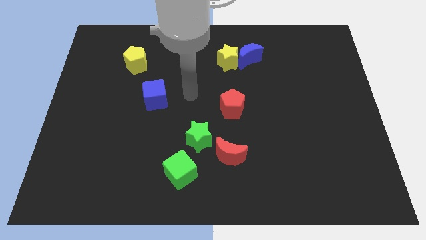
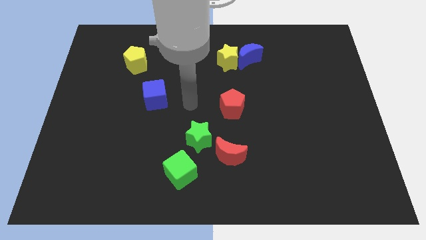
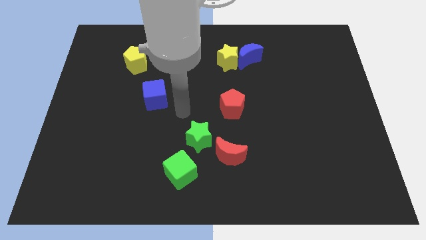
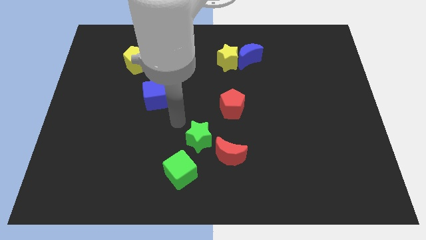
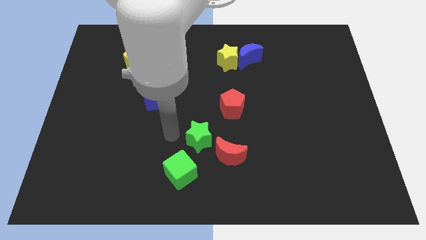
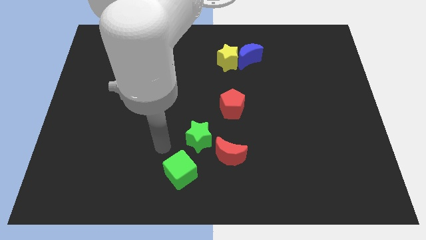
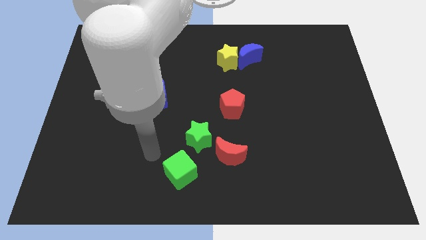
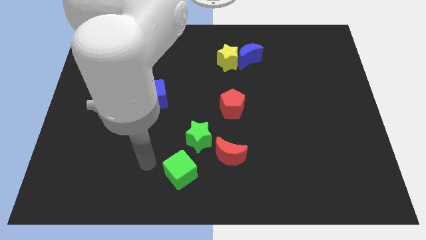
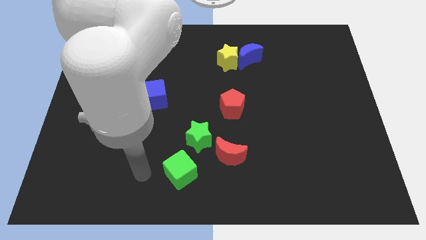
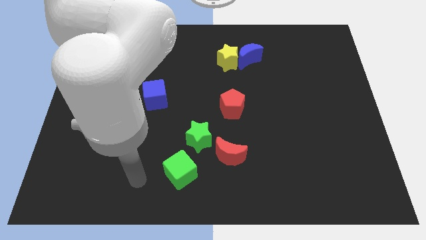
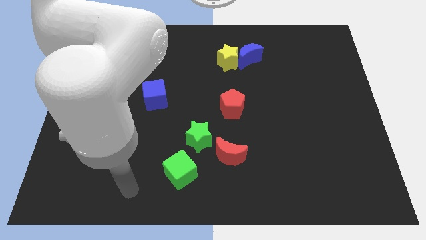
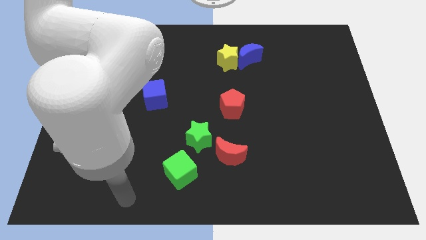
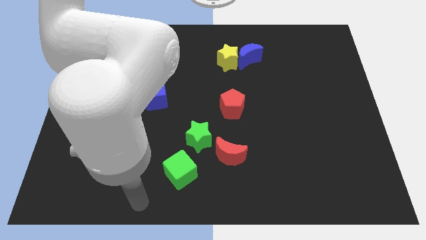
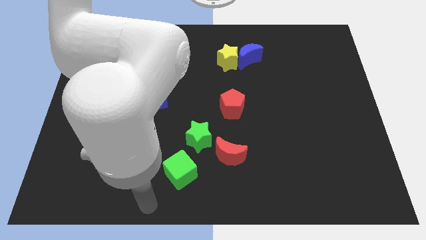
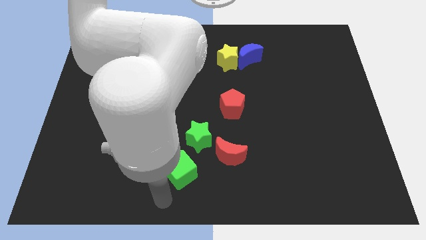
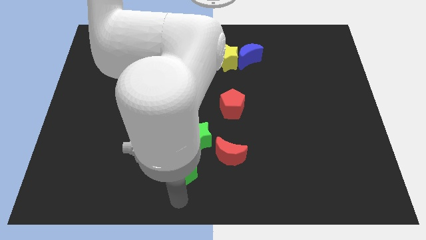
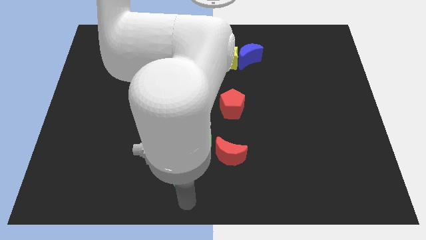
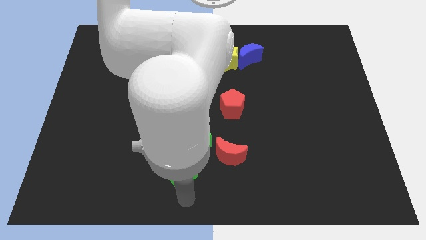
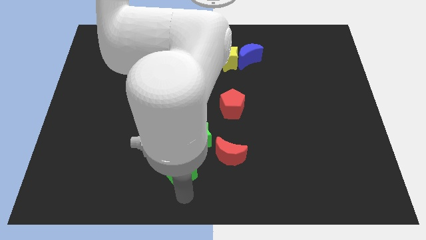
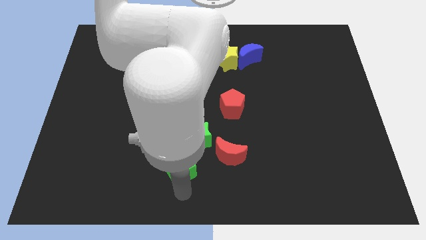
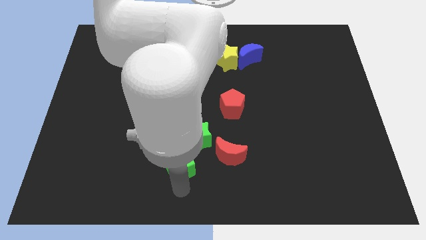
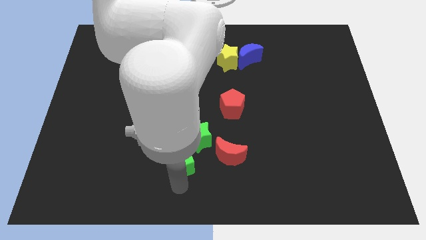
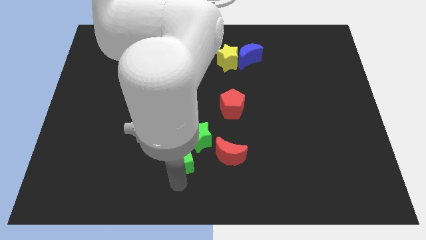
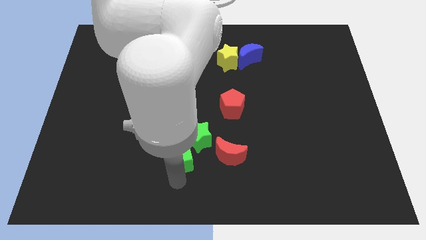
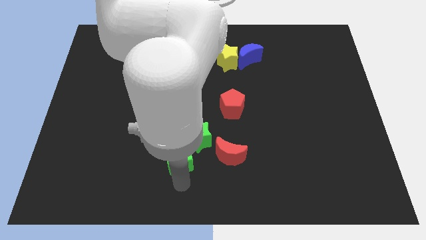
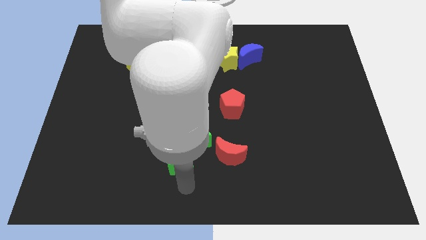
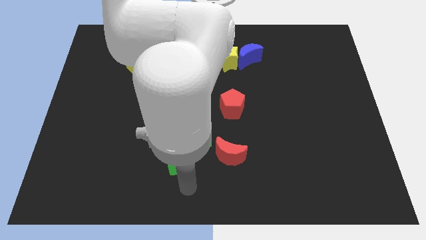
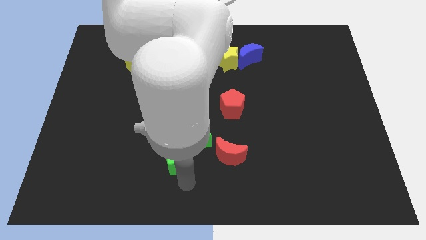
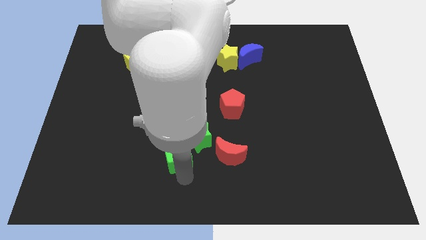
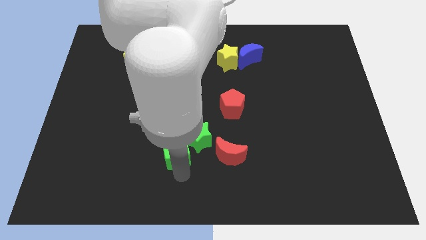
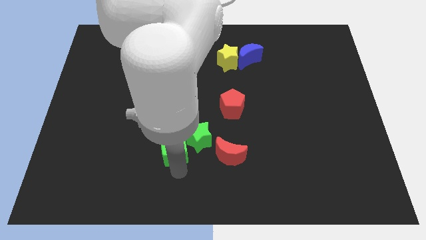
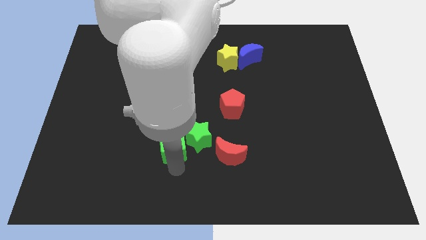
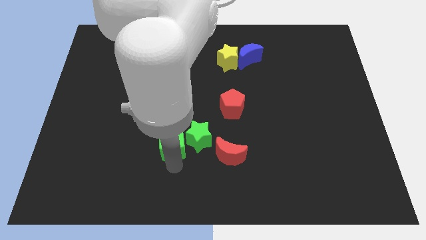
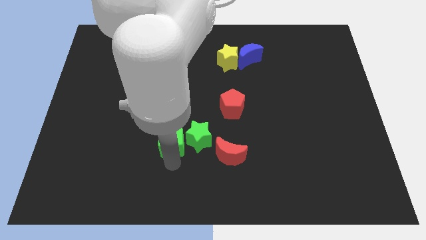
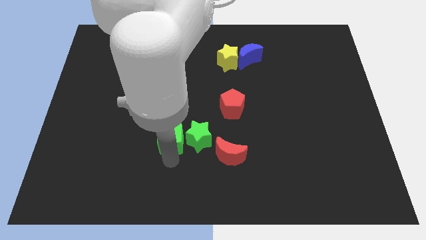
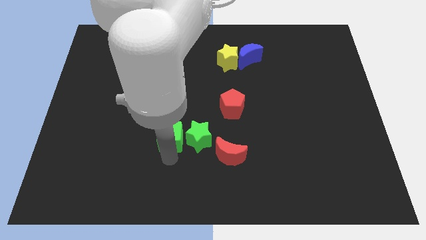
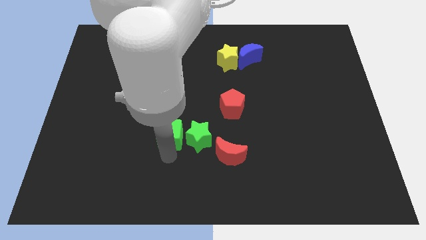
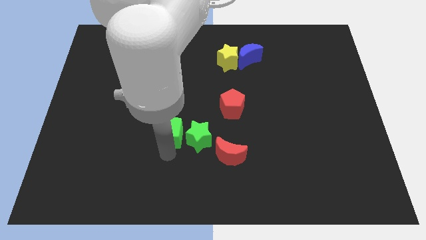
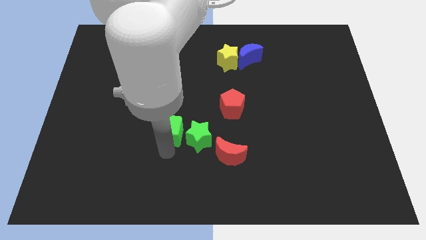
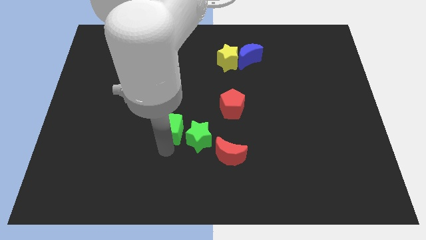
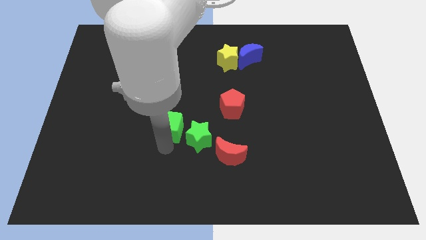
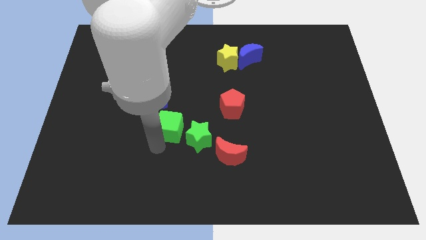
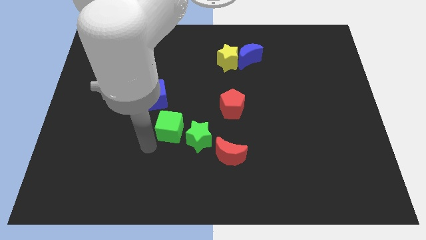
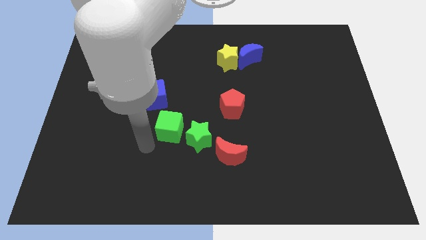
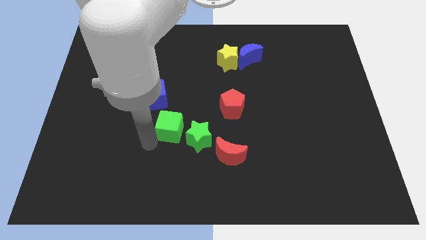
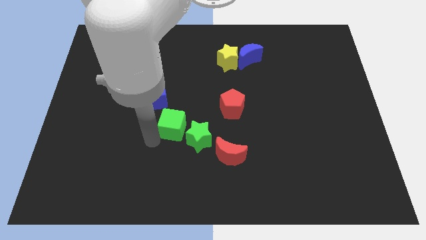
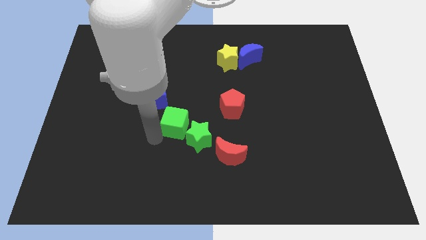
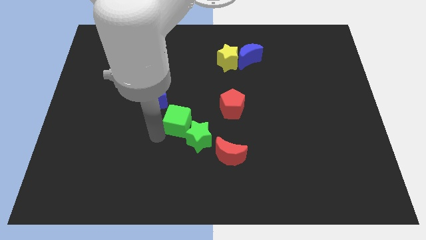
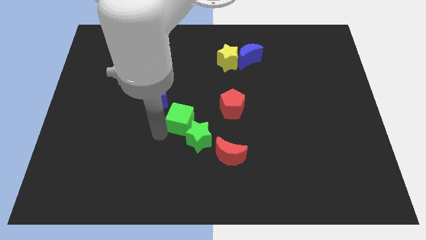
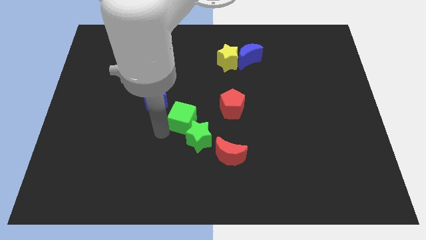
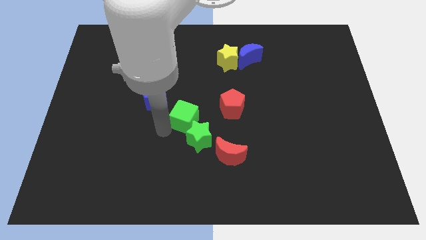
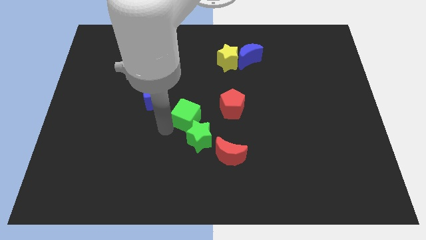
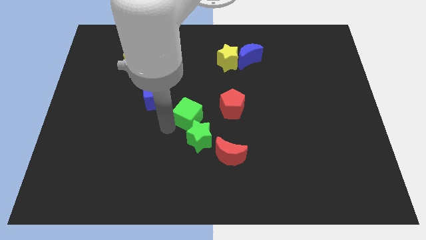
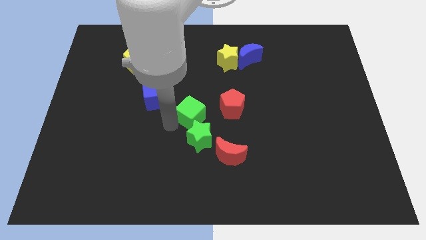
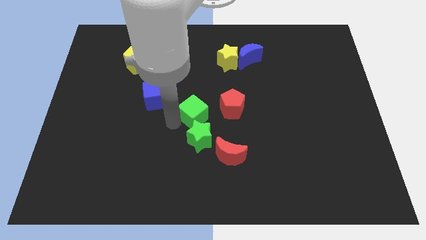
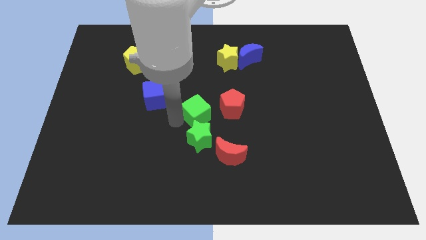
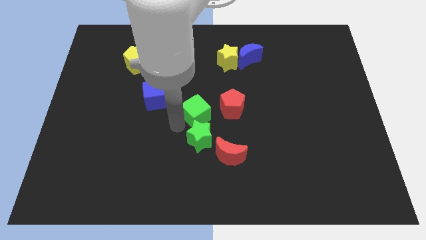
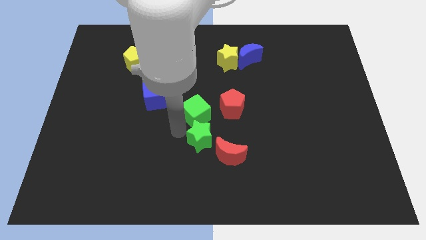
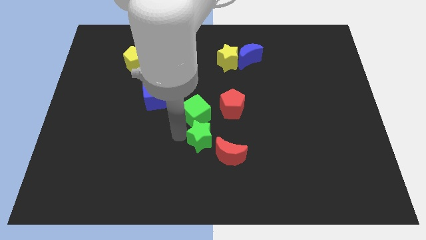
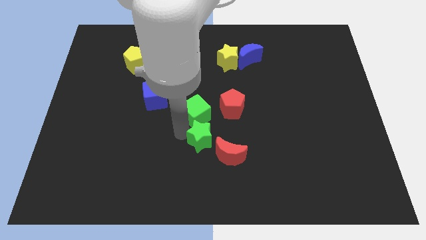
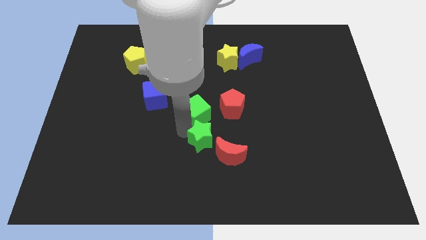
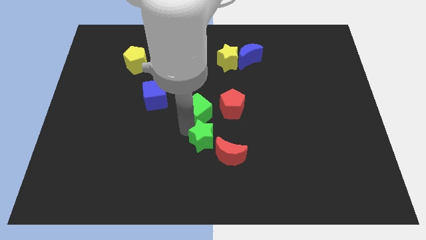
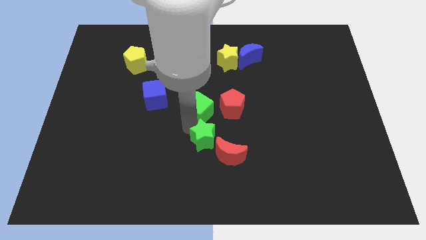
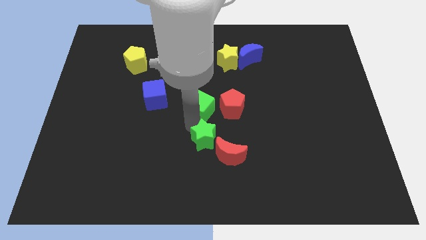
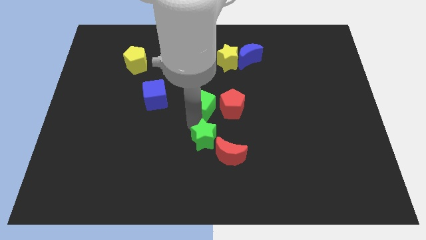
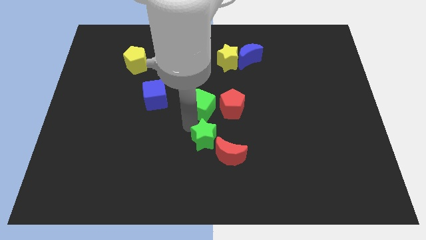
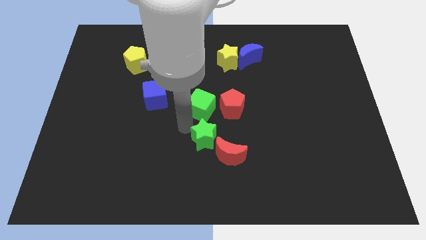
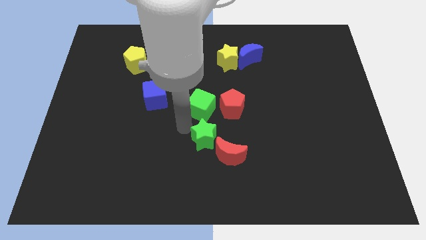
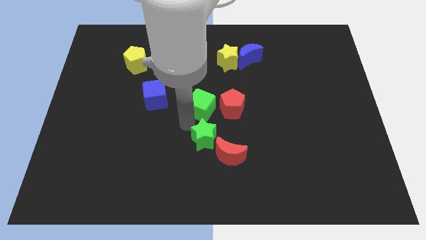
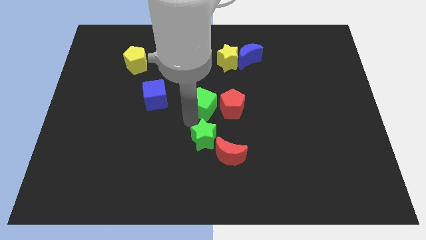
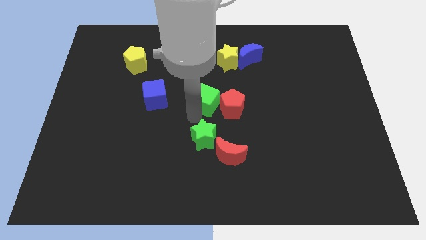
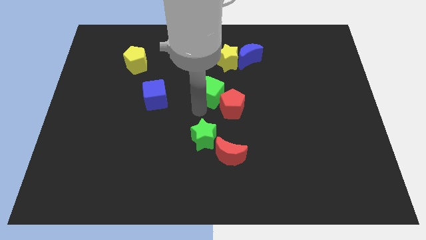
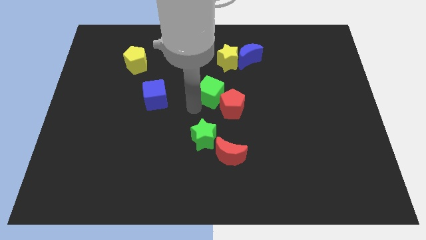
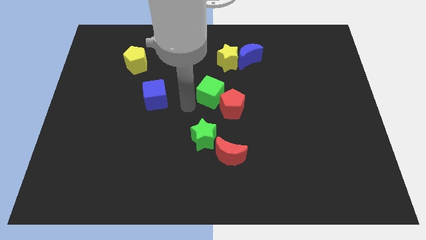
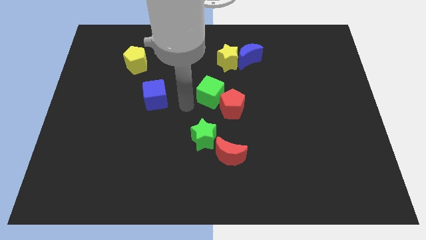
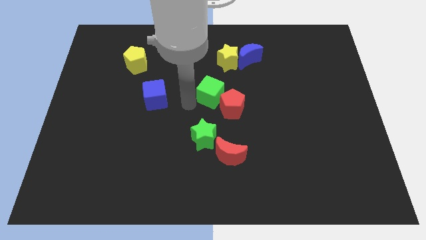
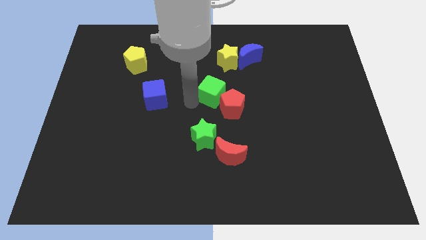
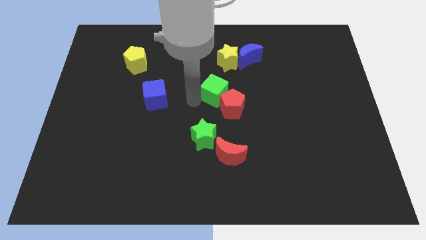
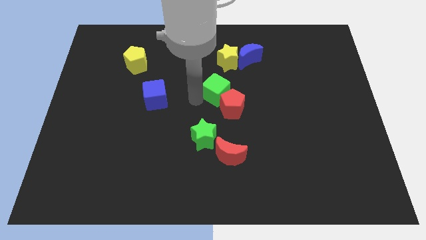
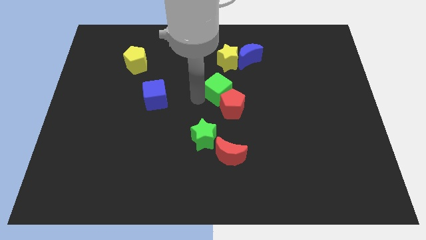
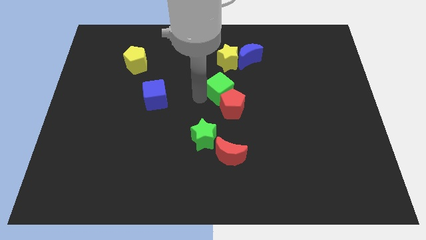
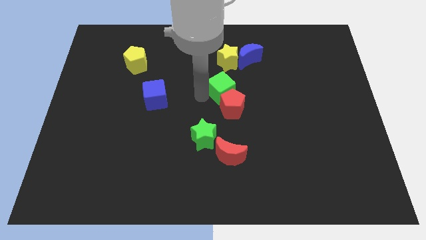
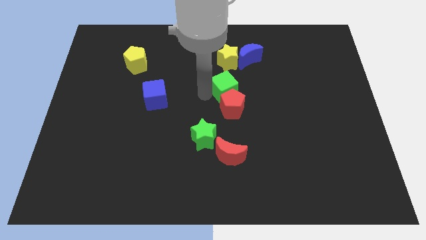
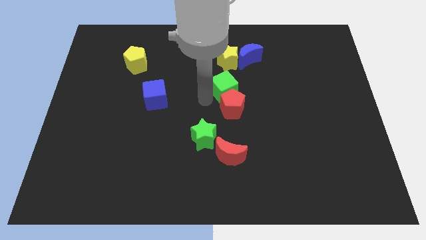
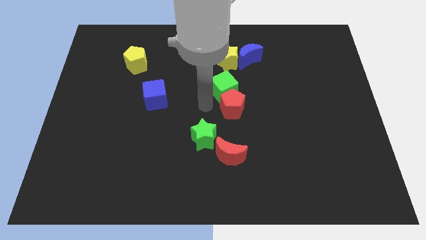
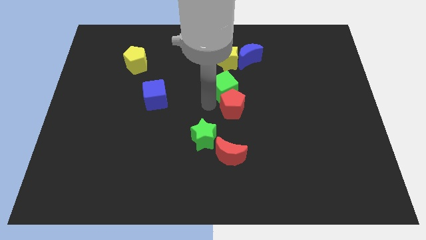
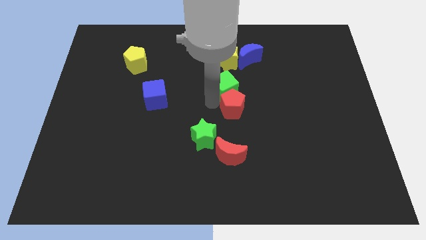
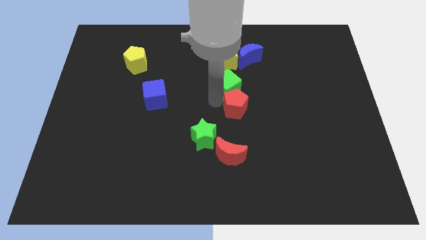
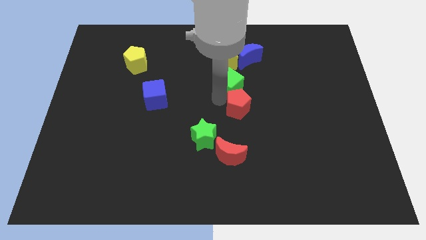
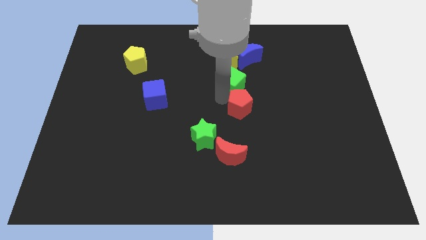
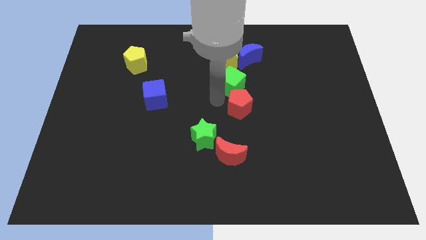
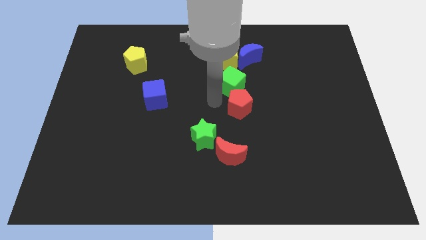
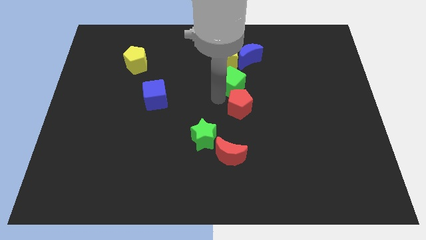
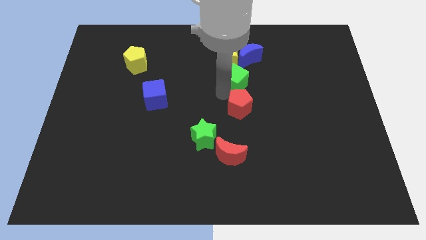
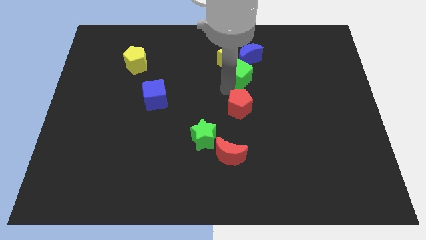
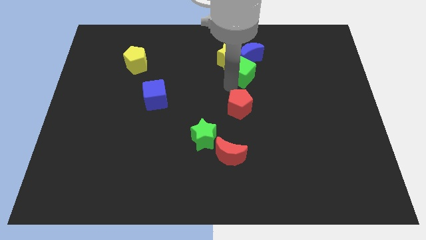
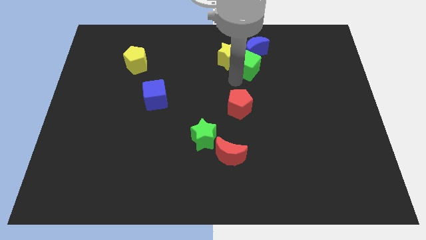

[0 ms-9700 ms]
move the green cube to the right side of the yellow star
